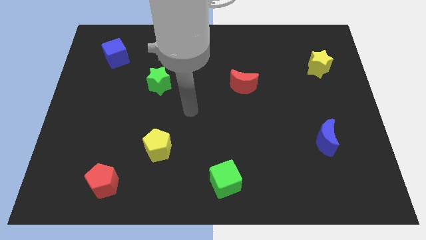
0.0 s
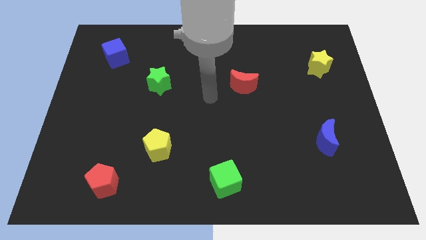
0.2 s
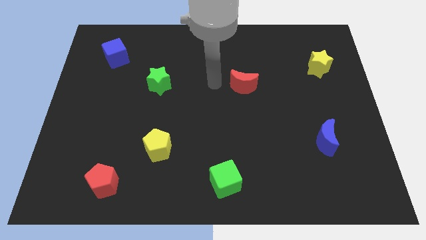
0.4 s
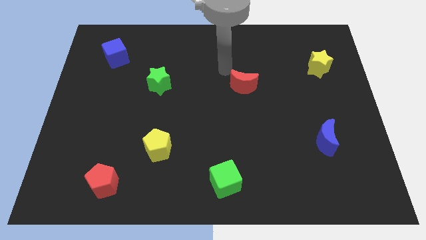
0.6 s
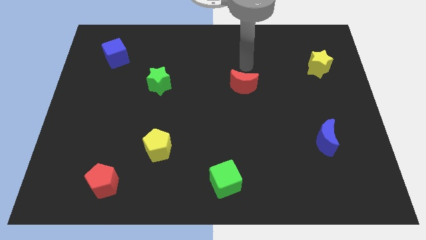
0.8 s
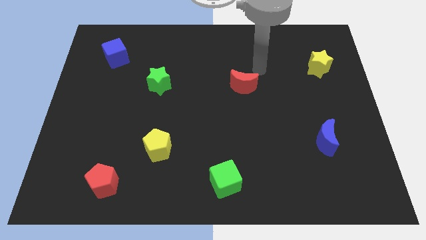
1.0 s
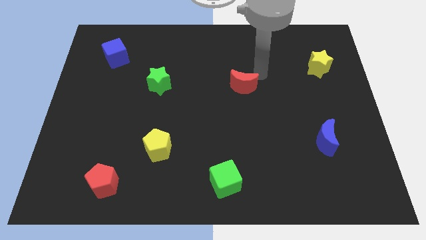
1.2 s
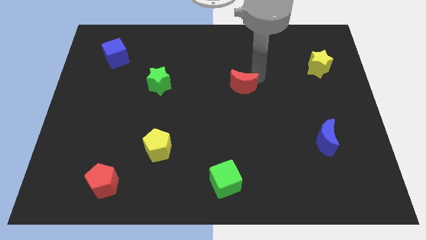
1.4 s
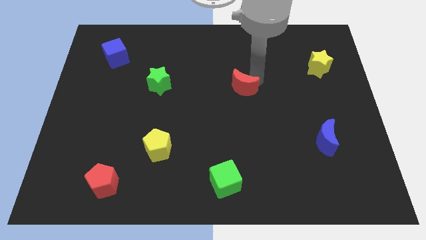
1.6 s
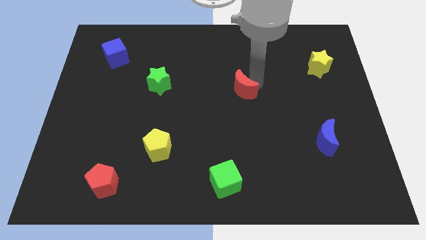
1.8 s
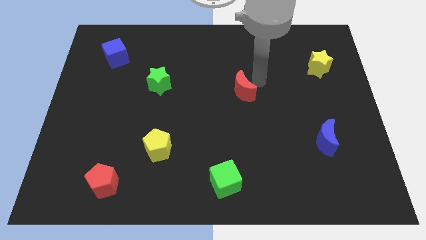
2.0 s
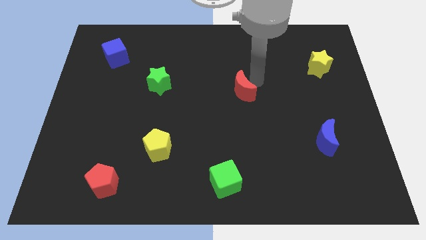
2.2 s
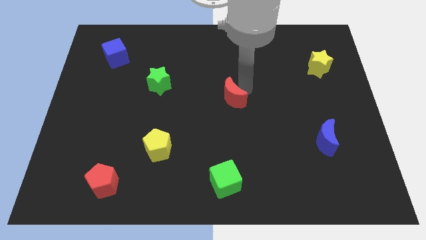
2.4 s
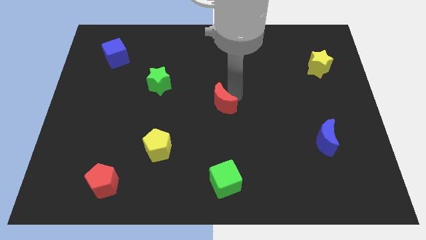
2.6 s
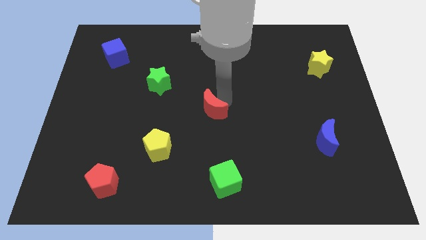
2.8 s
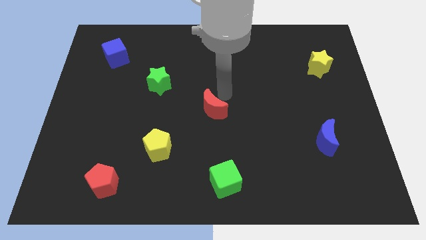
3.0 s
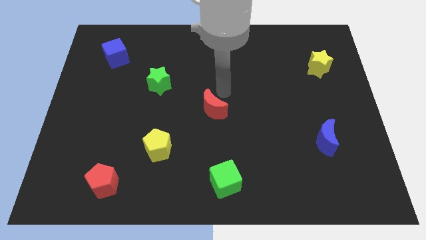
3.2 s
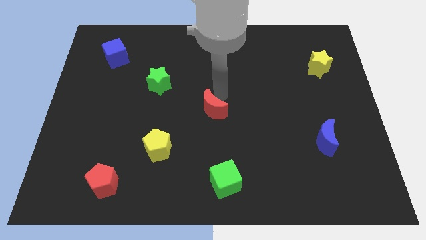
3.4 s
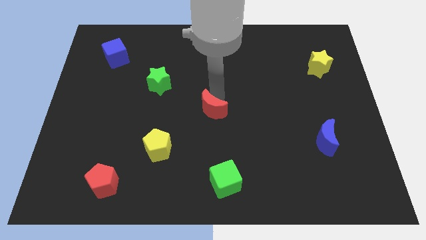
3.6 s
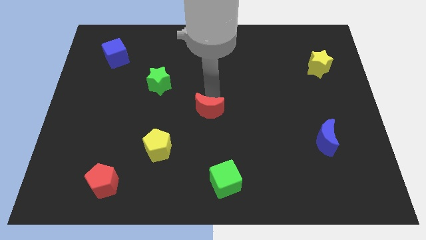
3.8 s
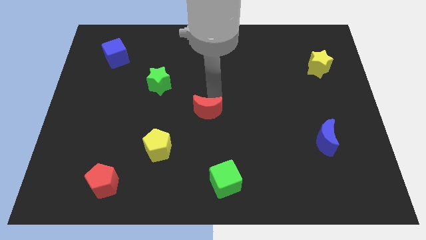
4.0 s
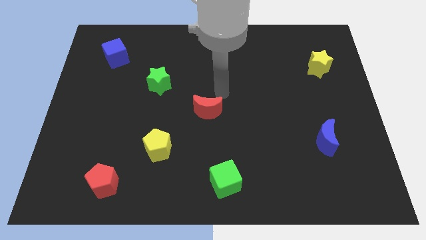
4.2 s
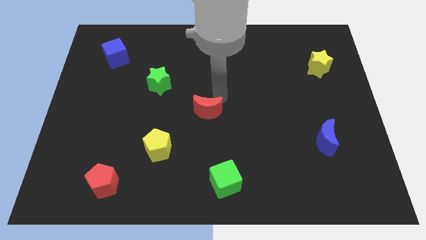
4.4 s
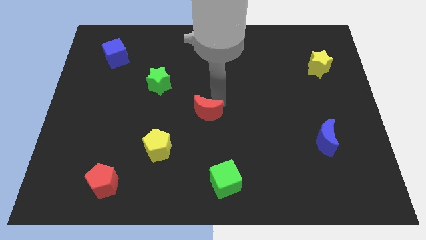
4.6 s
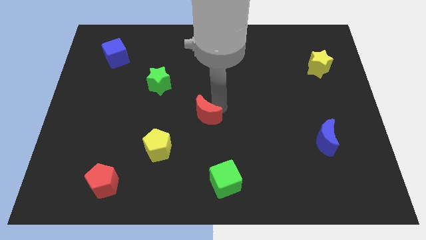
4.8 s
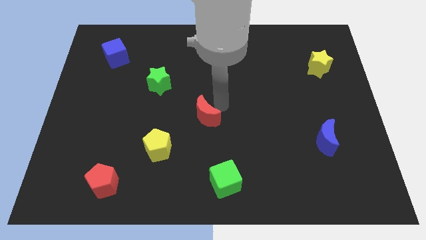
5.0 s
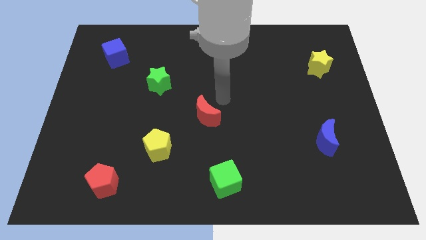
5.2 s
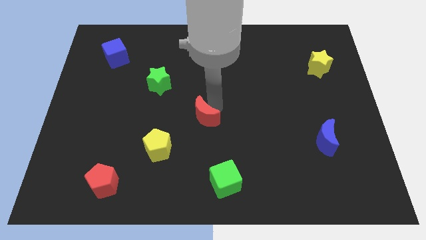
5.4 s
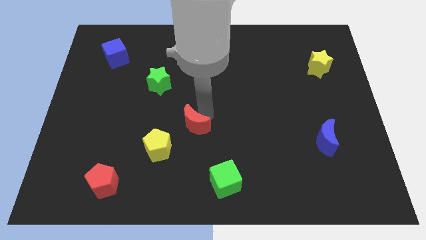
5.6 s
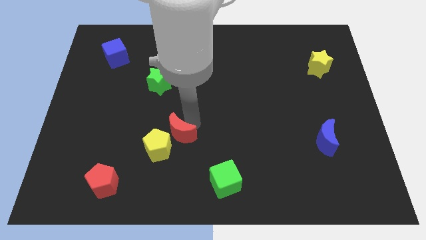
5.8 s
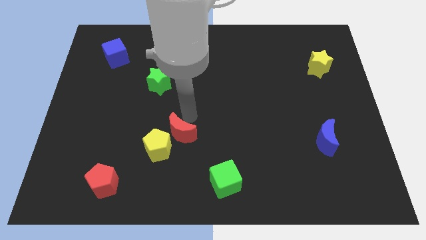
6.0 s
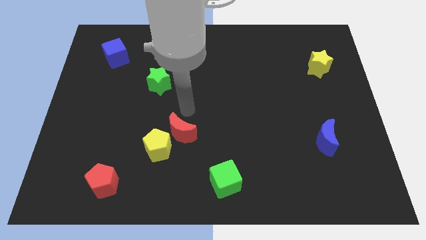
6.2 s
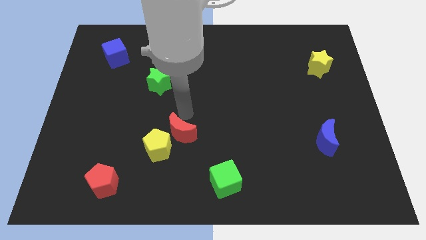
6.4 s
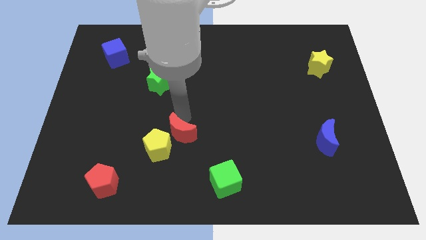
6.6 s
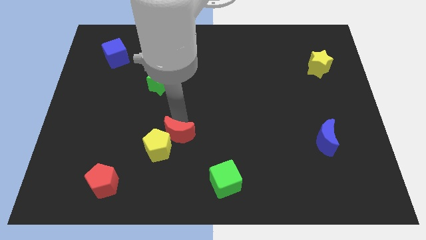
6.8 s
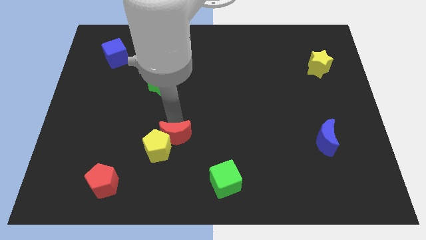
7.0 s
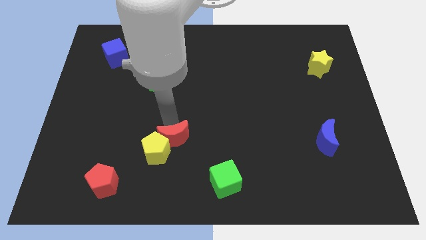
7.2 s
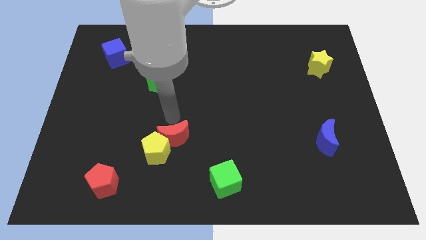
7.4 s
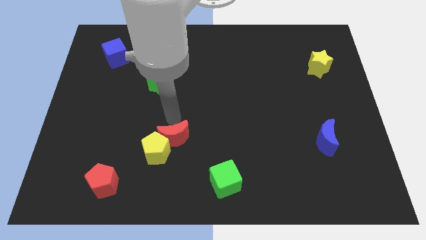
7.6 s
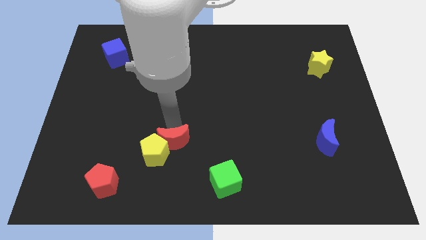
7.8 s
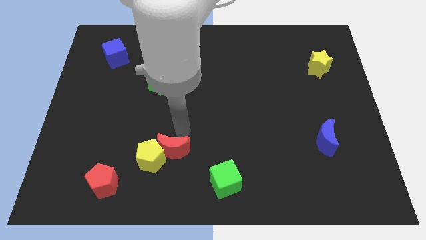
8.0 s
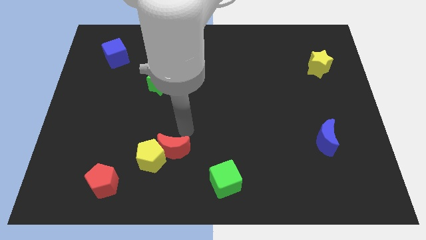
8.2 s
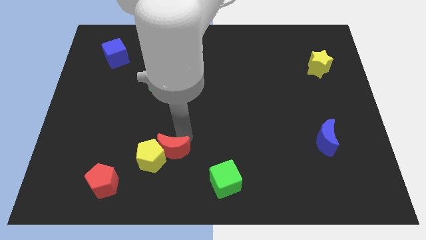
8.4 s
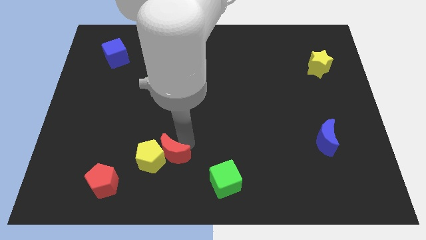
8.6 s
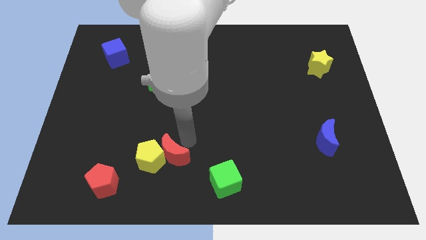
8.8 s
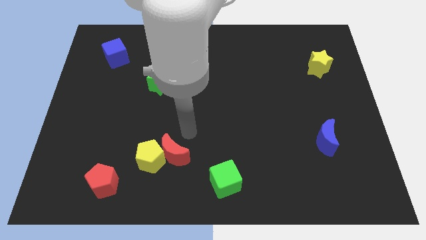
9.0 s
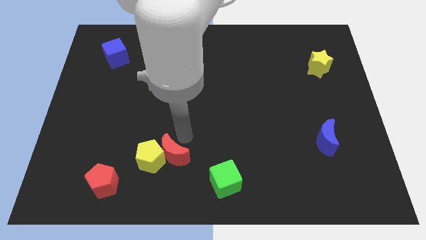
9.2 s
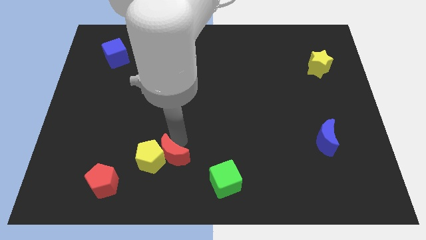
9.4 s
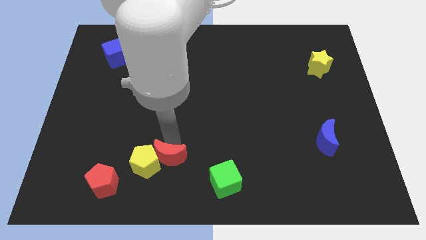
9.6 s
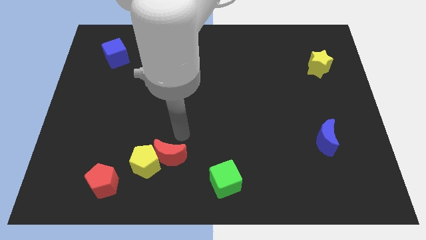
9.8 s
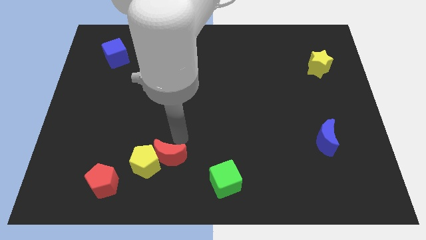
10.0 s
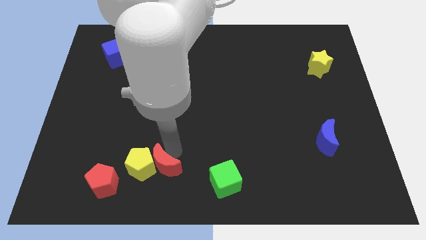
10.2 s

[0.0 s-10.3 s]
put the red moon to the right side of the red pentagon

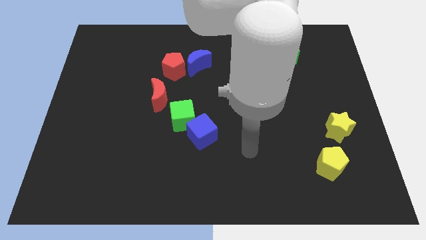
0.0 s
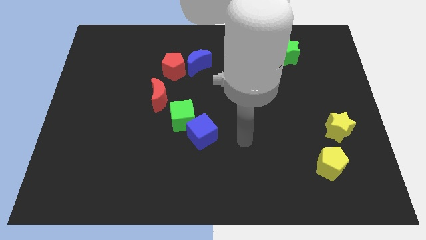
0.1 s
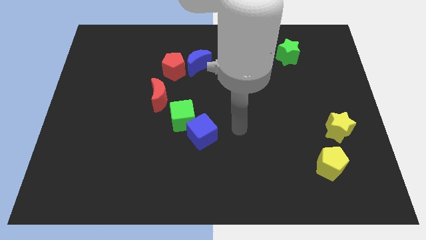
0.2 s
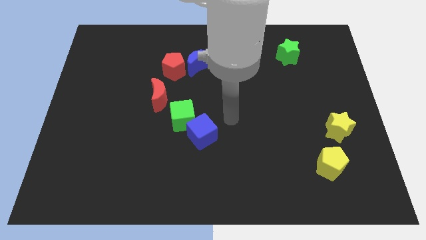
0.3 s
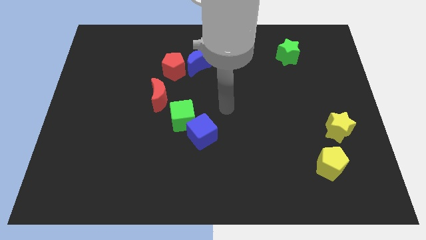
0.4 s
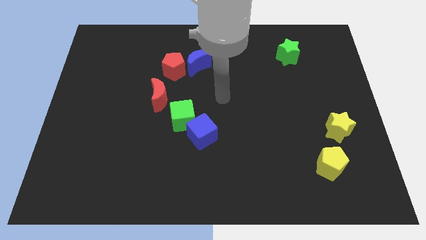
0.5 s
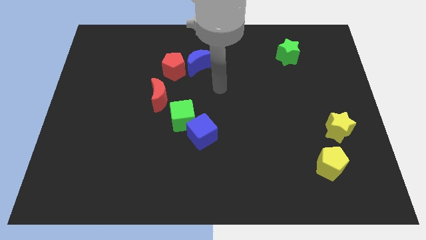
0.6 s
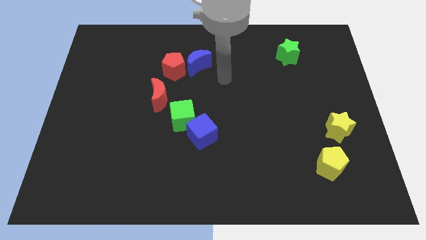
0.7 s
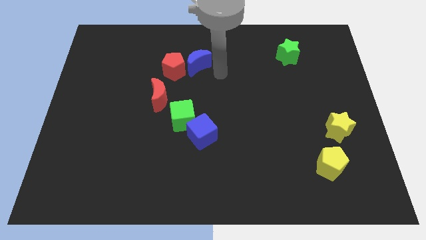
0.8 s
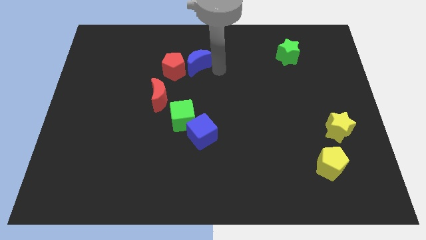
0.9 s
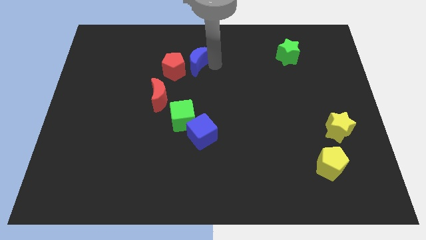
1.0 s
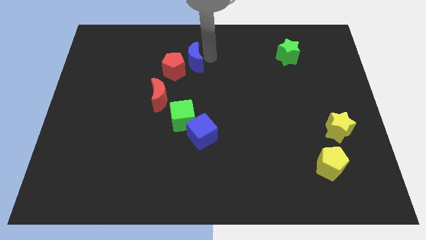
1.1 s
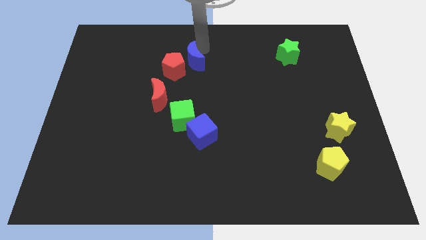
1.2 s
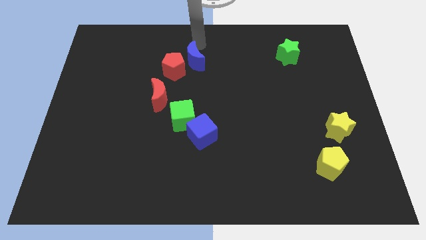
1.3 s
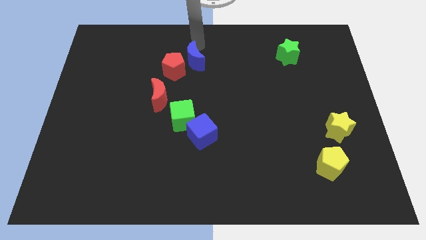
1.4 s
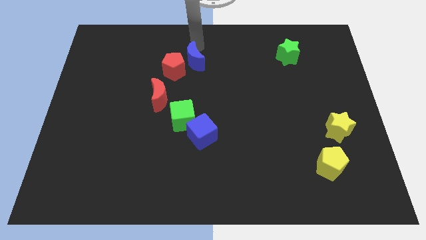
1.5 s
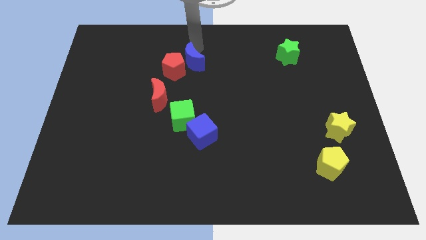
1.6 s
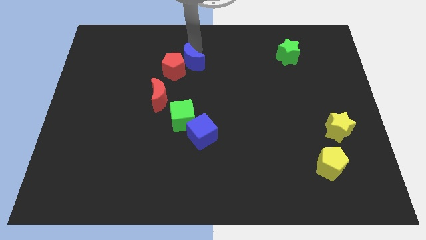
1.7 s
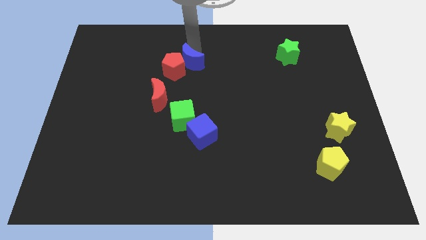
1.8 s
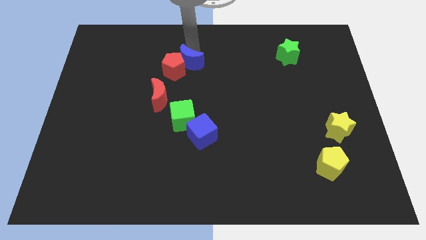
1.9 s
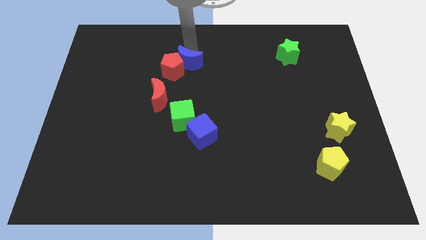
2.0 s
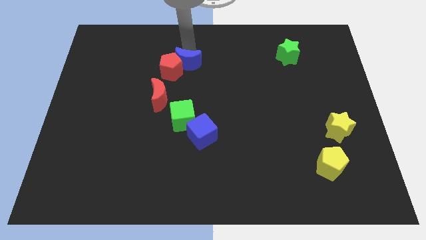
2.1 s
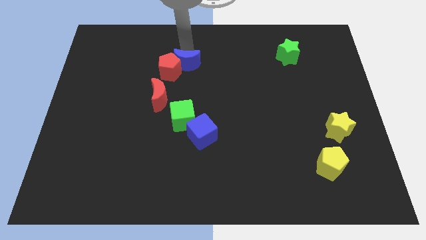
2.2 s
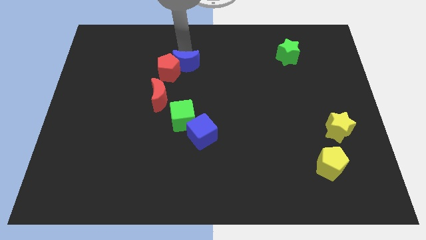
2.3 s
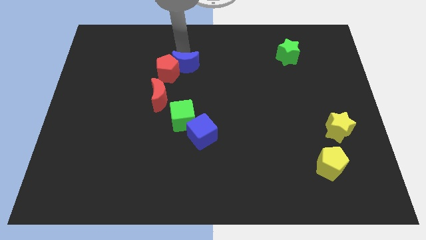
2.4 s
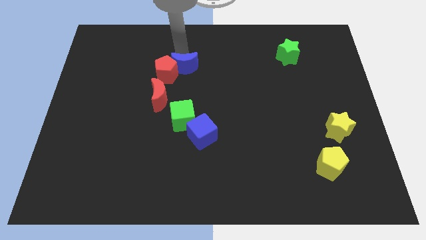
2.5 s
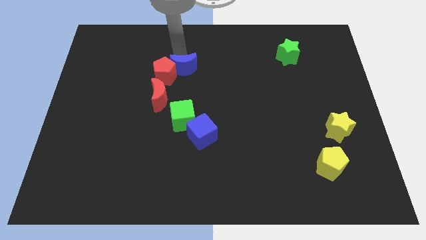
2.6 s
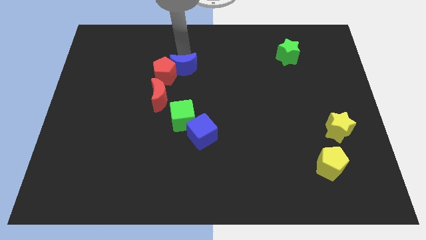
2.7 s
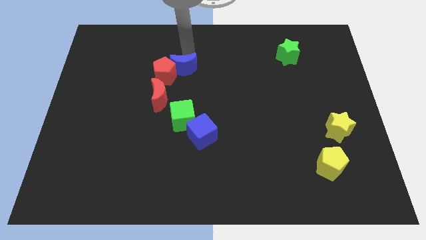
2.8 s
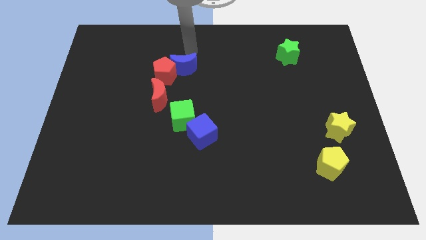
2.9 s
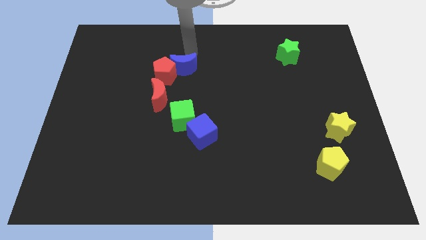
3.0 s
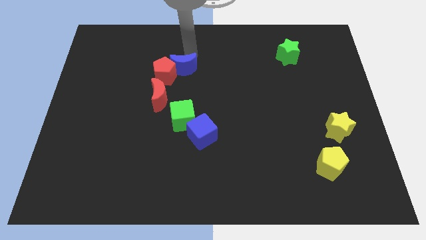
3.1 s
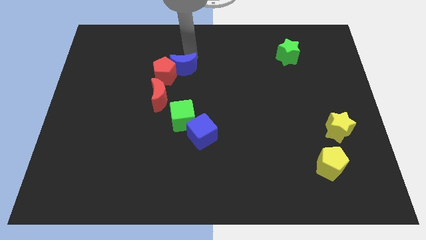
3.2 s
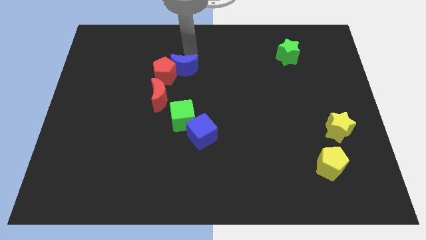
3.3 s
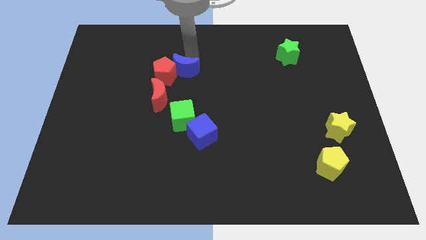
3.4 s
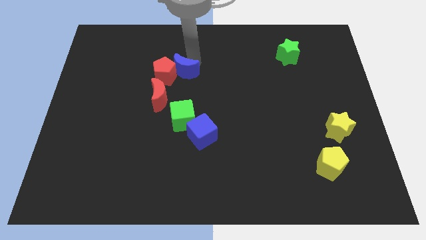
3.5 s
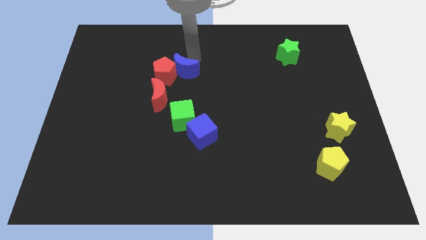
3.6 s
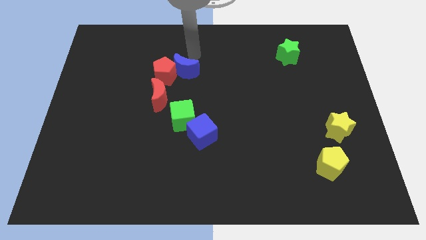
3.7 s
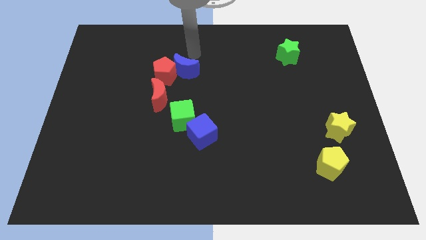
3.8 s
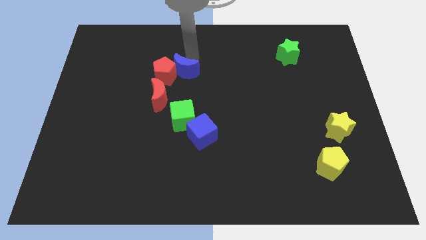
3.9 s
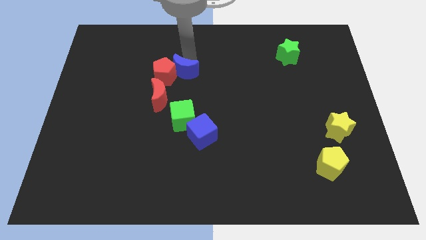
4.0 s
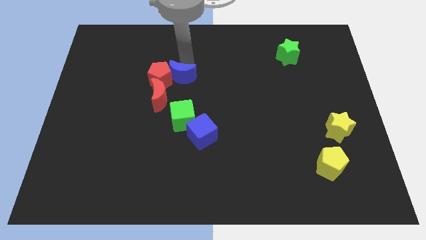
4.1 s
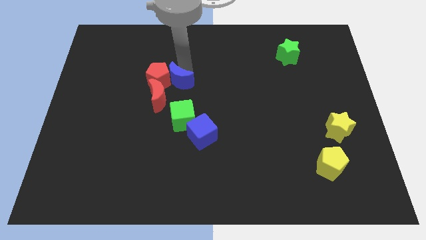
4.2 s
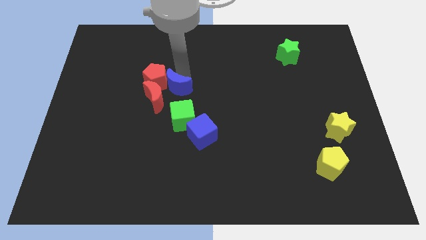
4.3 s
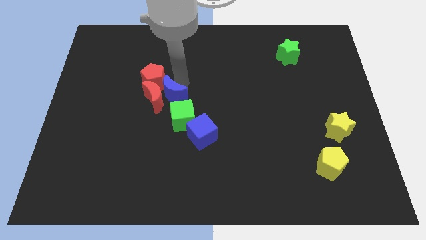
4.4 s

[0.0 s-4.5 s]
push the blue moon to the bottom side of the red pentagon
